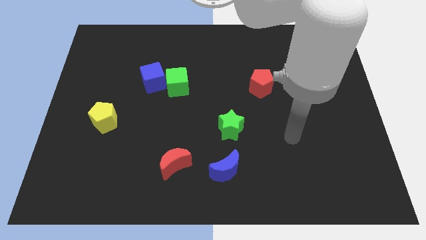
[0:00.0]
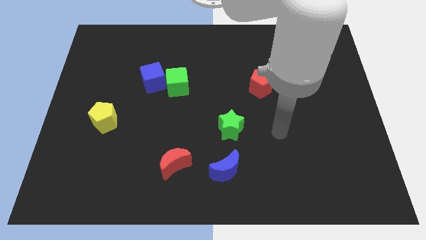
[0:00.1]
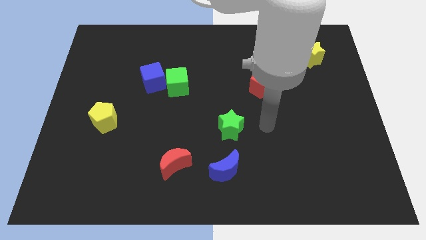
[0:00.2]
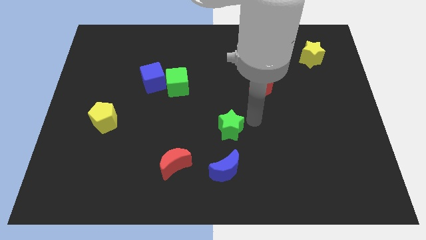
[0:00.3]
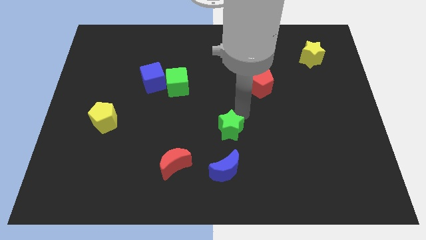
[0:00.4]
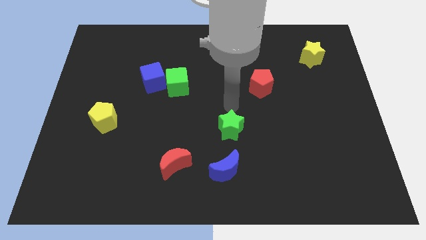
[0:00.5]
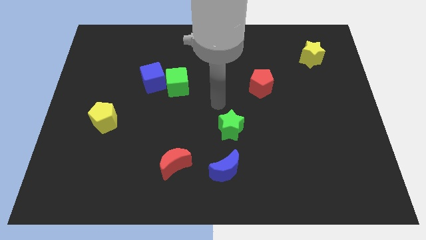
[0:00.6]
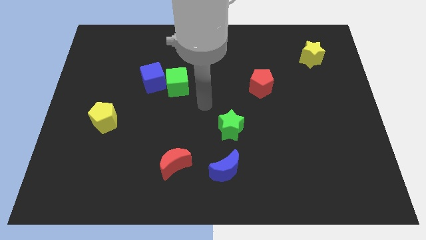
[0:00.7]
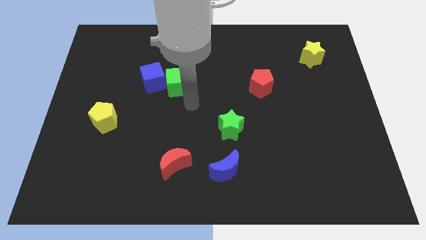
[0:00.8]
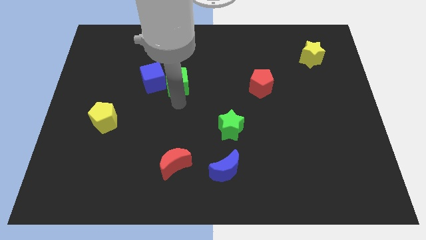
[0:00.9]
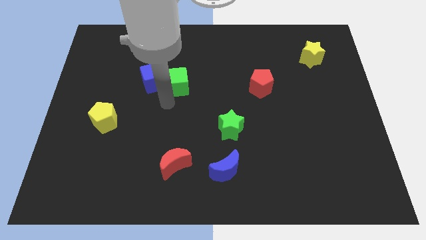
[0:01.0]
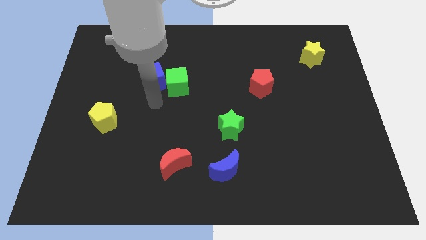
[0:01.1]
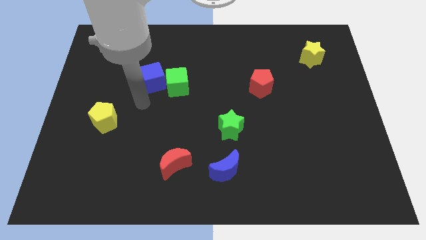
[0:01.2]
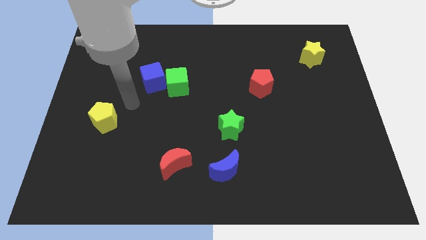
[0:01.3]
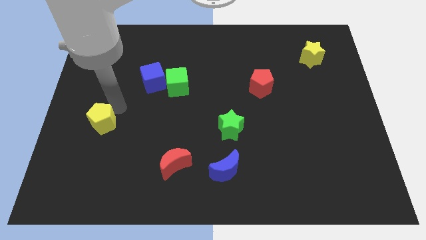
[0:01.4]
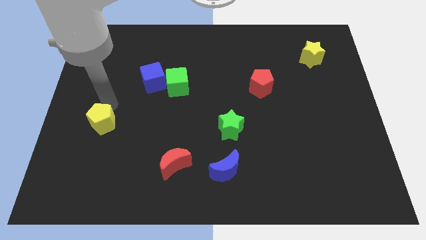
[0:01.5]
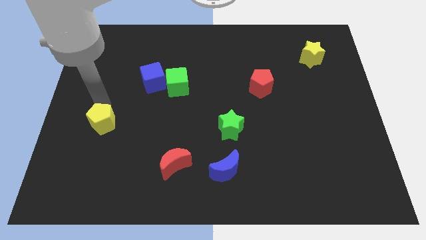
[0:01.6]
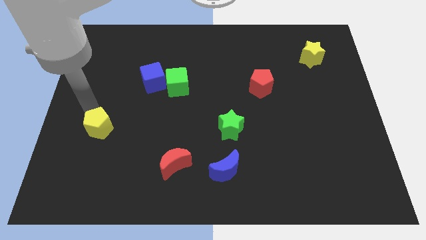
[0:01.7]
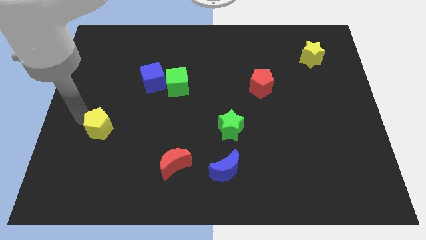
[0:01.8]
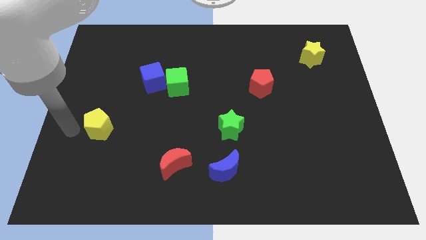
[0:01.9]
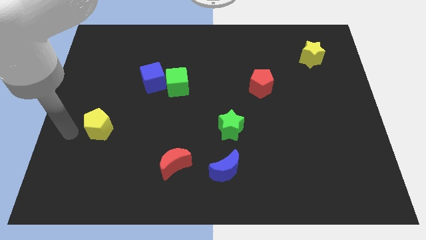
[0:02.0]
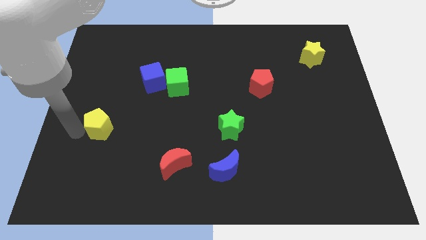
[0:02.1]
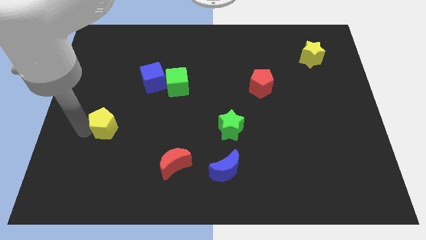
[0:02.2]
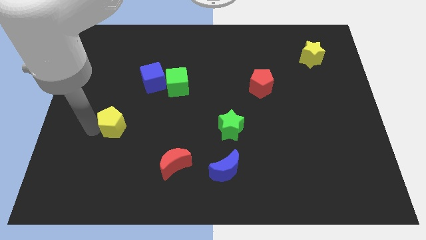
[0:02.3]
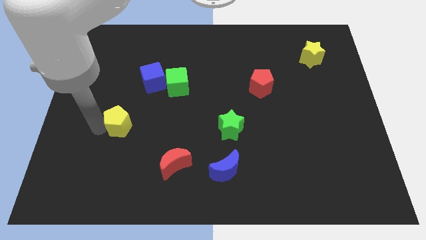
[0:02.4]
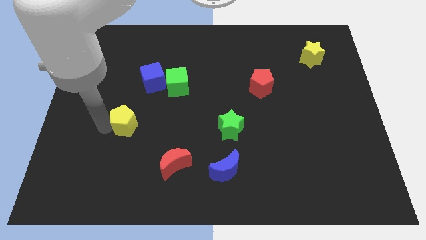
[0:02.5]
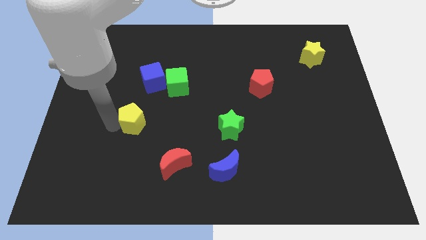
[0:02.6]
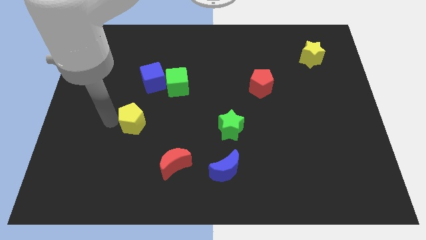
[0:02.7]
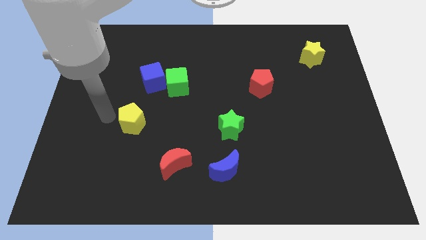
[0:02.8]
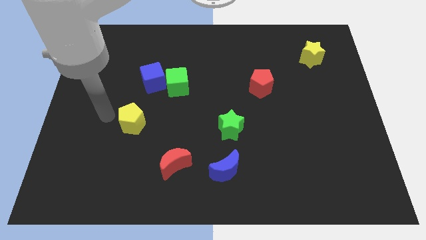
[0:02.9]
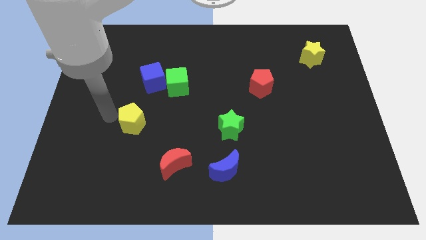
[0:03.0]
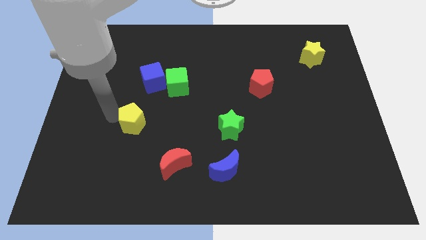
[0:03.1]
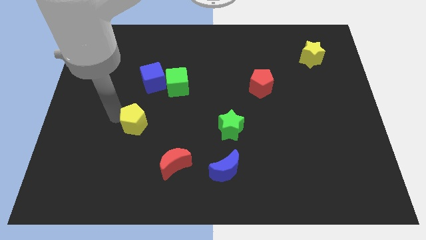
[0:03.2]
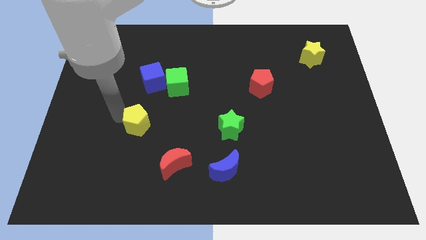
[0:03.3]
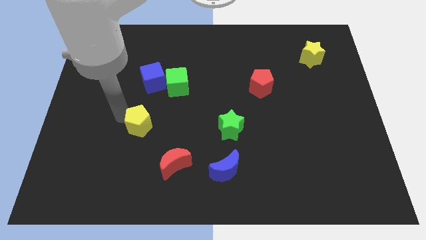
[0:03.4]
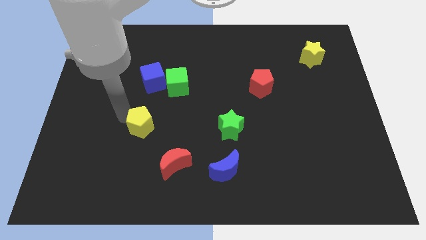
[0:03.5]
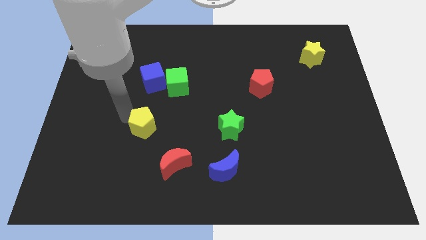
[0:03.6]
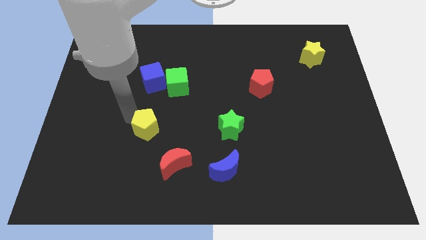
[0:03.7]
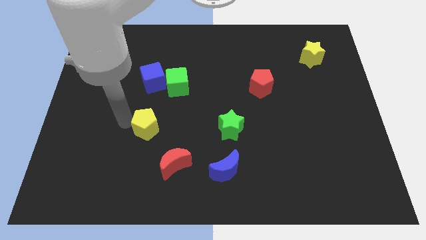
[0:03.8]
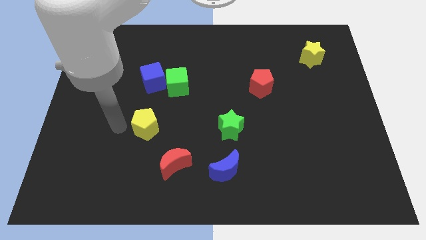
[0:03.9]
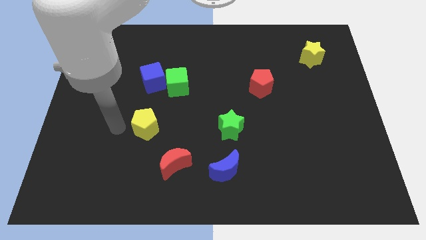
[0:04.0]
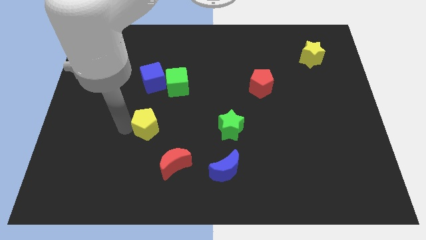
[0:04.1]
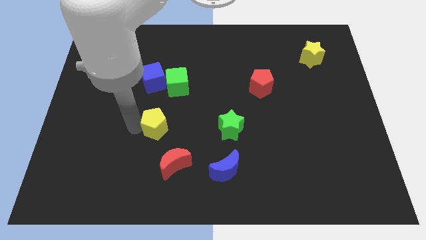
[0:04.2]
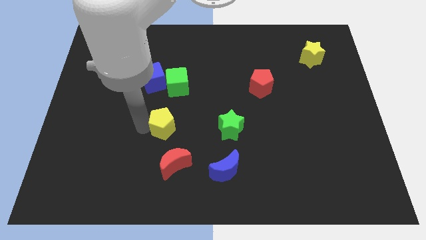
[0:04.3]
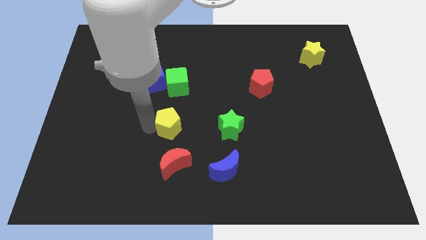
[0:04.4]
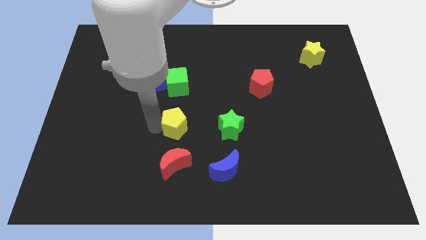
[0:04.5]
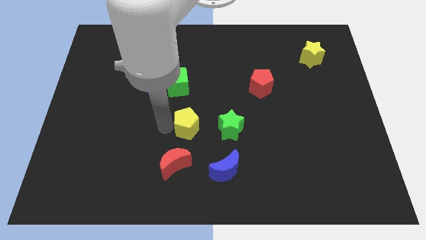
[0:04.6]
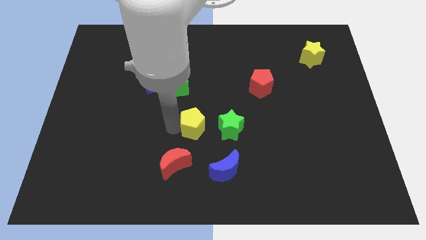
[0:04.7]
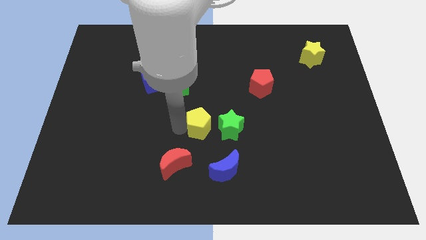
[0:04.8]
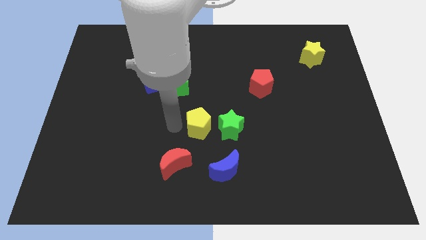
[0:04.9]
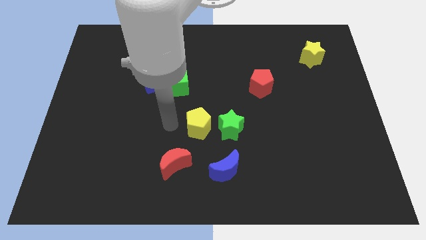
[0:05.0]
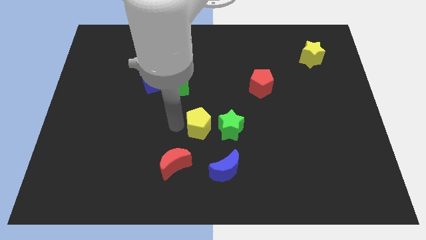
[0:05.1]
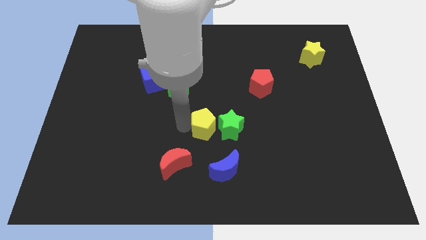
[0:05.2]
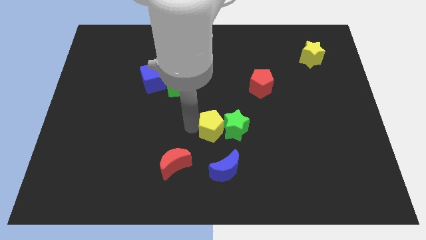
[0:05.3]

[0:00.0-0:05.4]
move the yellow pentagon close to the green star

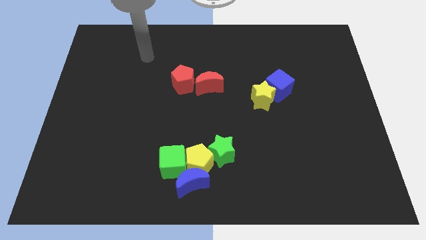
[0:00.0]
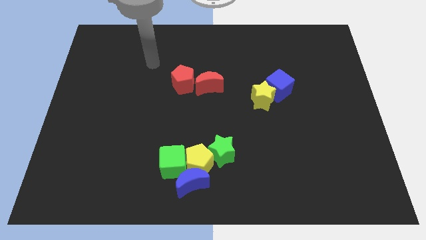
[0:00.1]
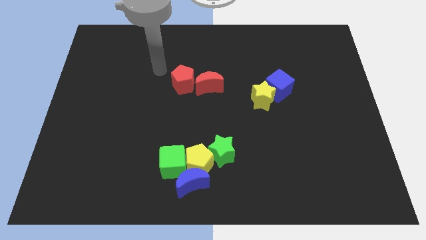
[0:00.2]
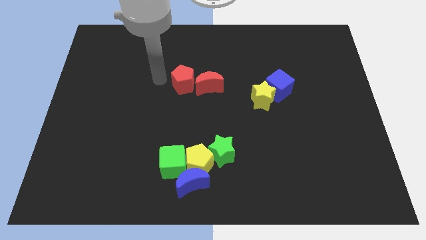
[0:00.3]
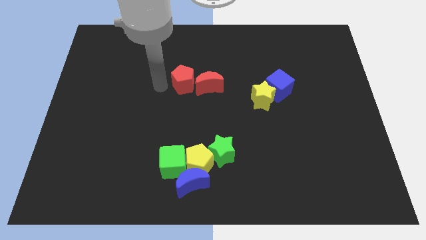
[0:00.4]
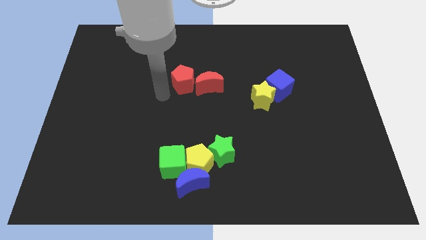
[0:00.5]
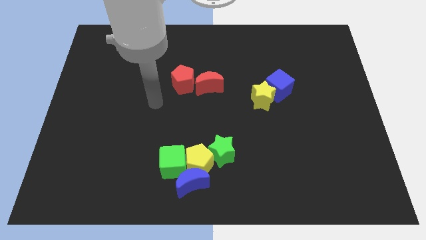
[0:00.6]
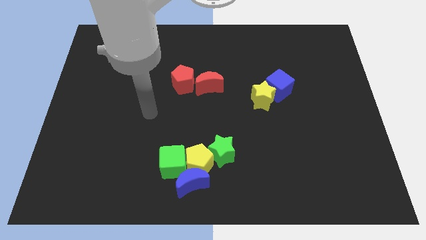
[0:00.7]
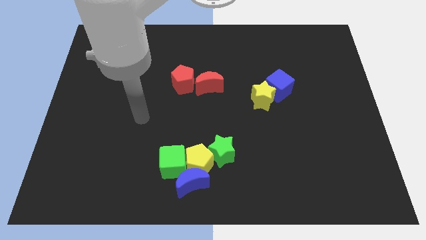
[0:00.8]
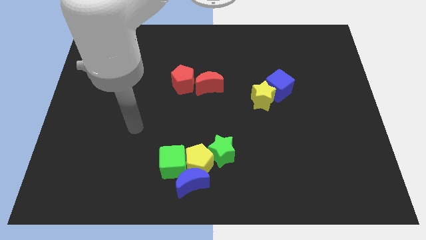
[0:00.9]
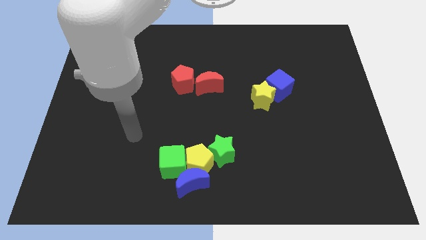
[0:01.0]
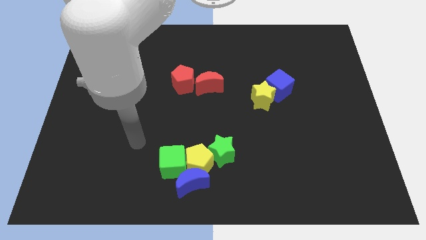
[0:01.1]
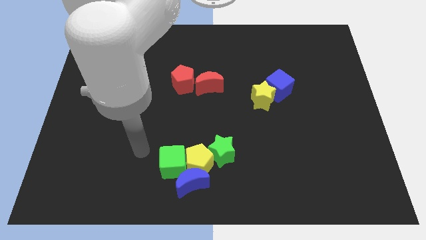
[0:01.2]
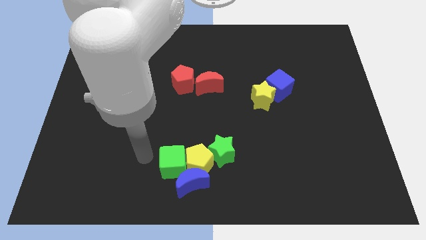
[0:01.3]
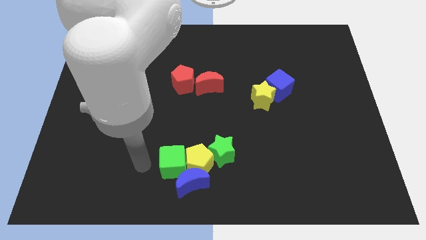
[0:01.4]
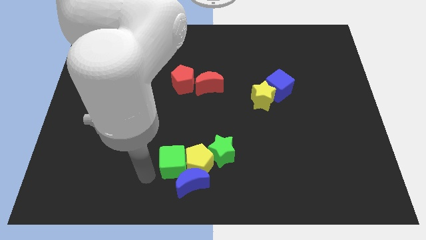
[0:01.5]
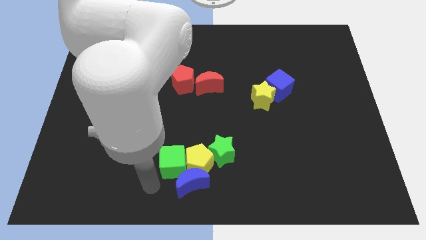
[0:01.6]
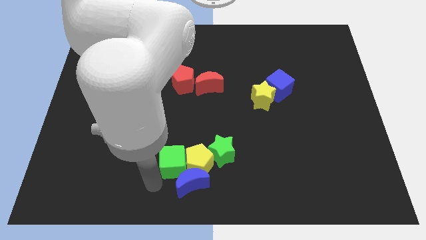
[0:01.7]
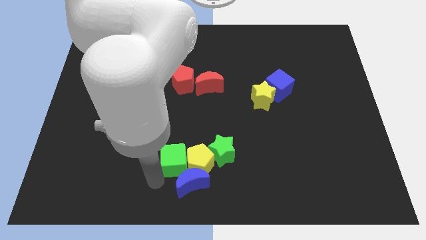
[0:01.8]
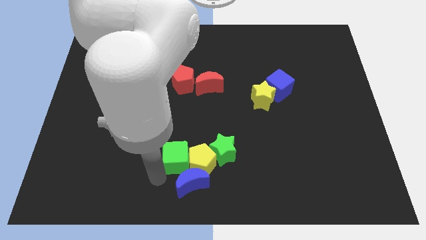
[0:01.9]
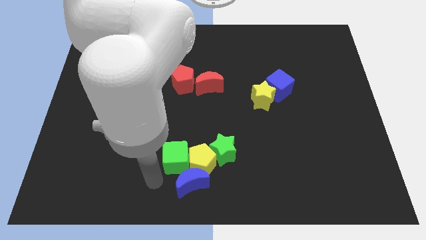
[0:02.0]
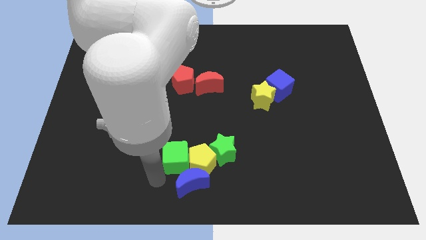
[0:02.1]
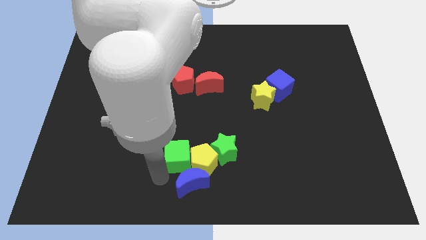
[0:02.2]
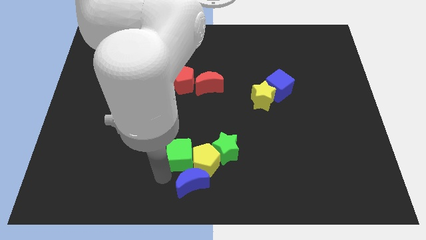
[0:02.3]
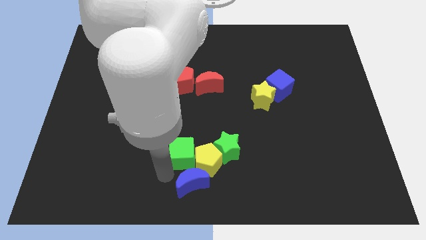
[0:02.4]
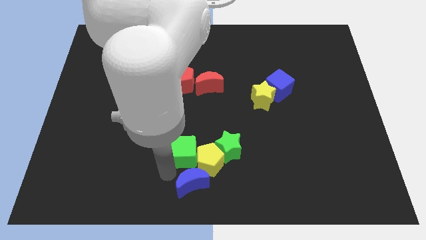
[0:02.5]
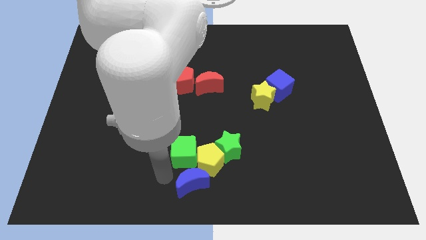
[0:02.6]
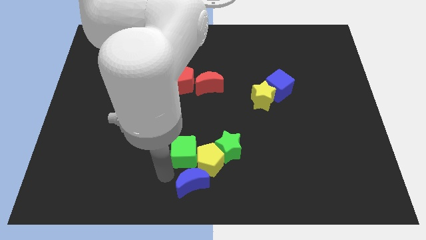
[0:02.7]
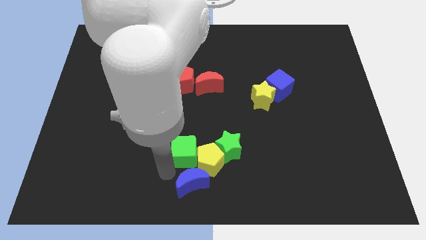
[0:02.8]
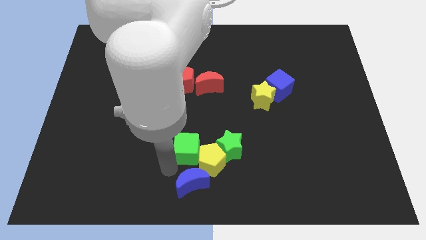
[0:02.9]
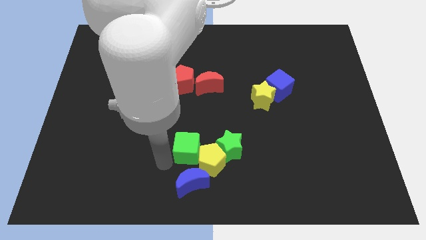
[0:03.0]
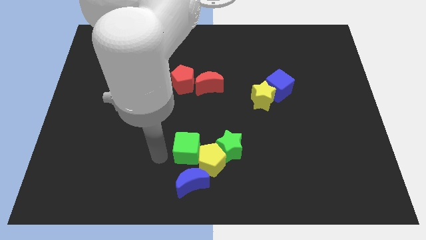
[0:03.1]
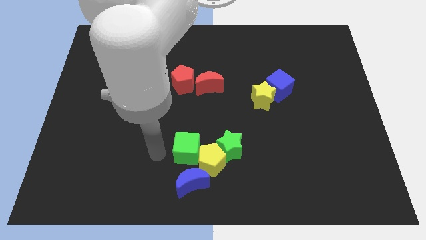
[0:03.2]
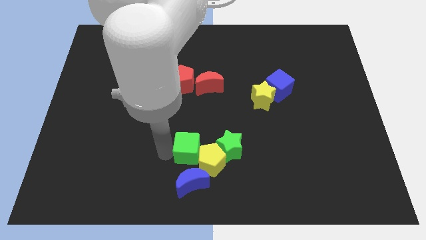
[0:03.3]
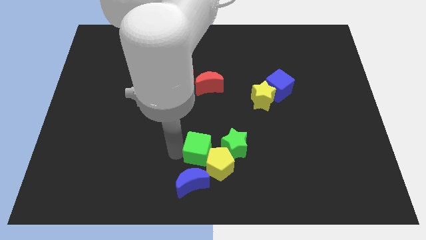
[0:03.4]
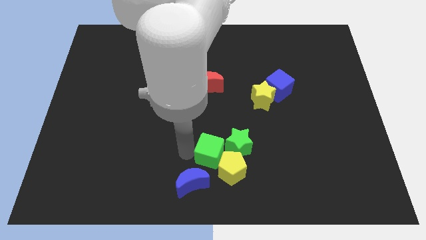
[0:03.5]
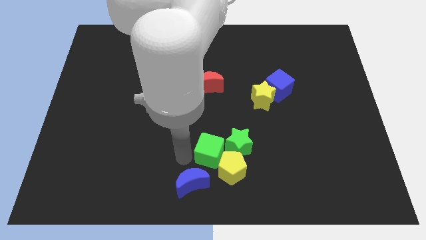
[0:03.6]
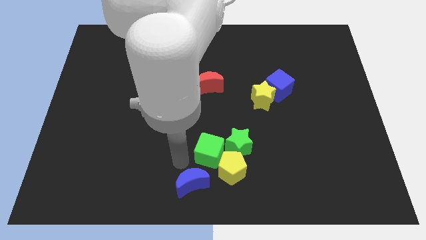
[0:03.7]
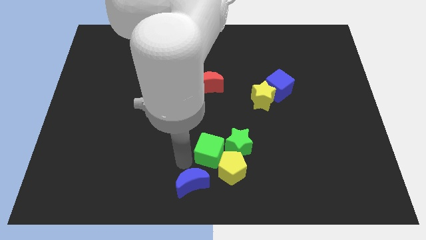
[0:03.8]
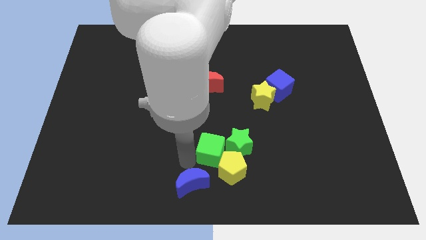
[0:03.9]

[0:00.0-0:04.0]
slide the green cube to the green star
